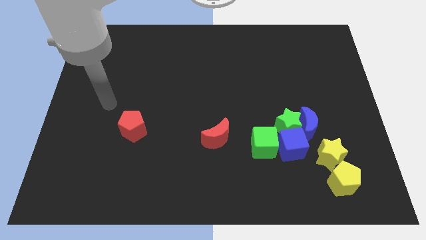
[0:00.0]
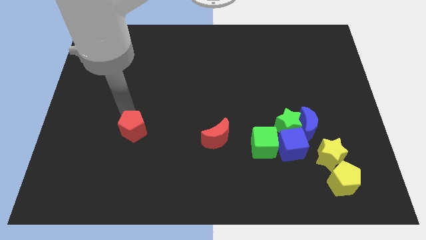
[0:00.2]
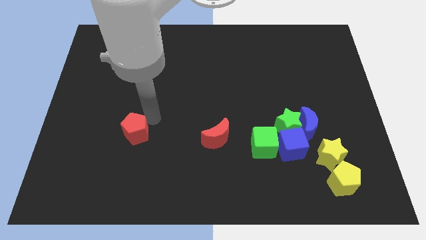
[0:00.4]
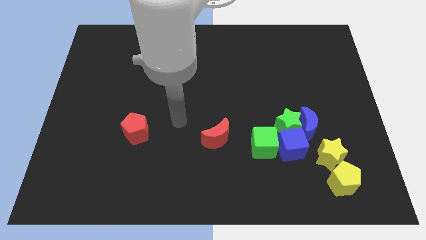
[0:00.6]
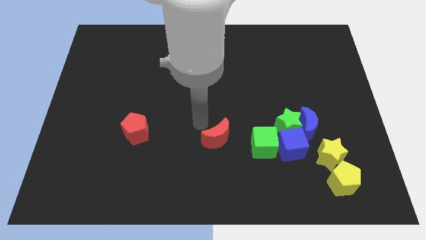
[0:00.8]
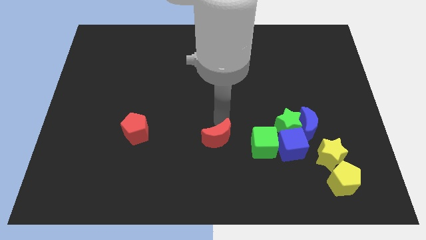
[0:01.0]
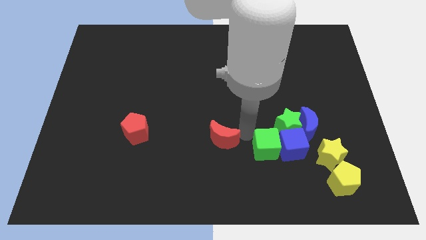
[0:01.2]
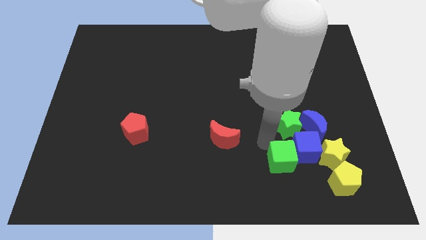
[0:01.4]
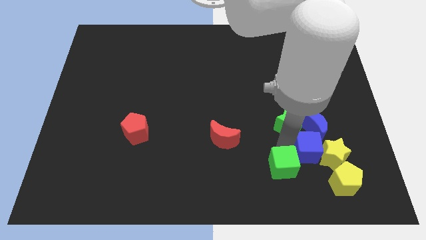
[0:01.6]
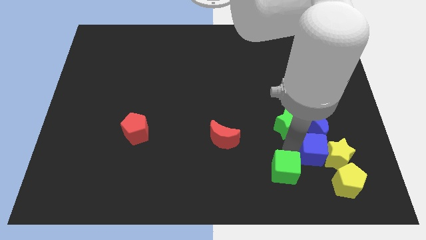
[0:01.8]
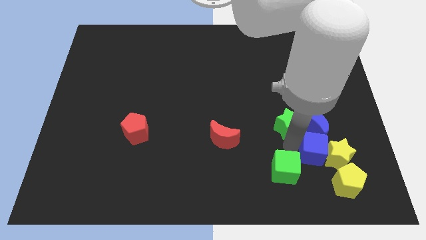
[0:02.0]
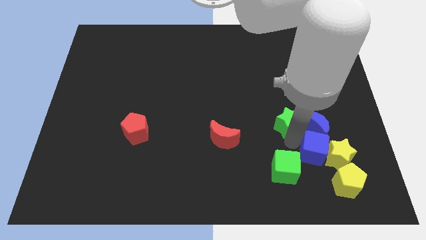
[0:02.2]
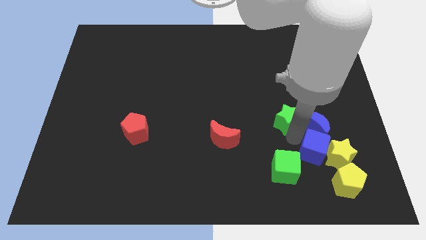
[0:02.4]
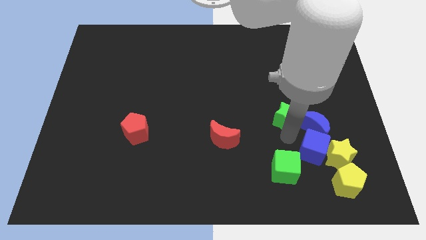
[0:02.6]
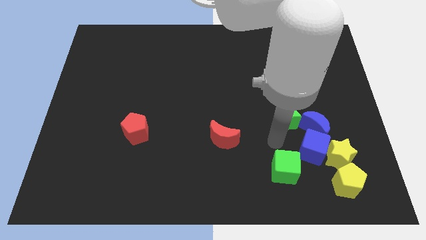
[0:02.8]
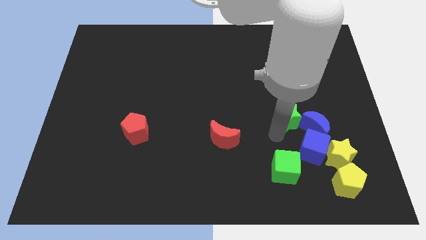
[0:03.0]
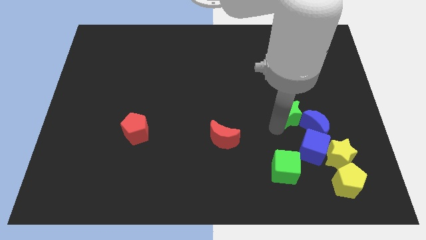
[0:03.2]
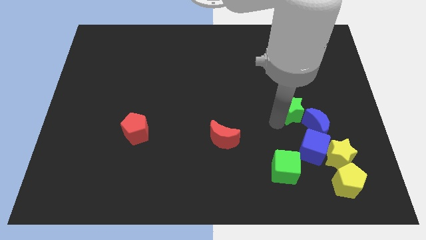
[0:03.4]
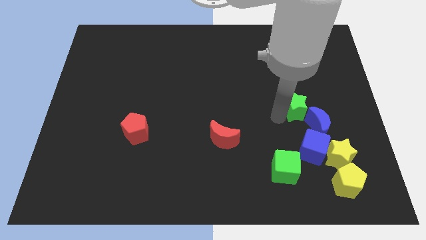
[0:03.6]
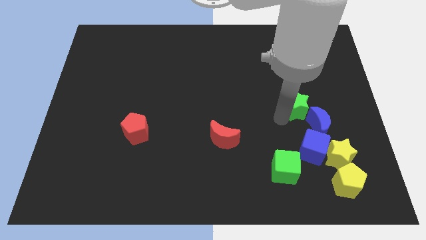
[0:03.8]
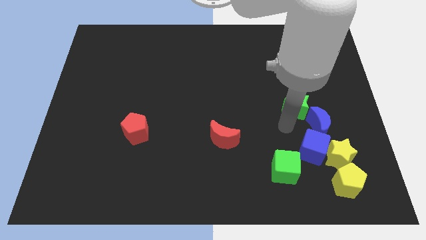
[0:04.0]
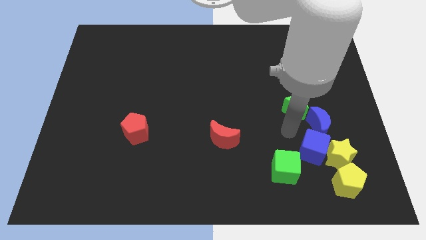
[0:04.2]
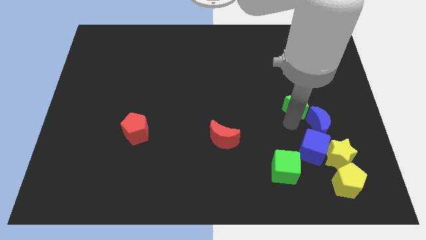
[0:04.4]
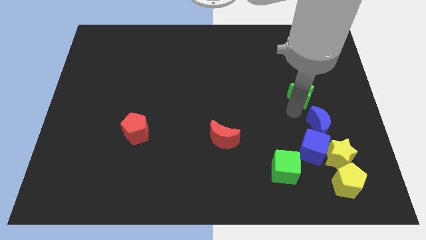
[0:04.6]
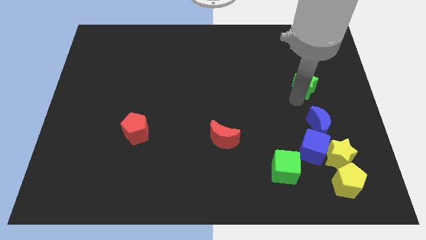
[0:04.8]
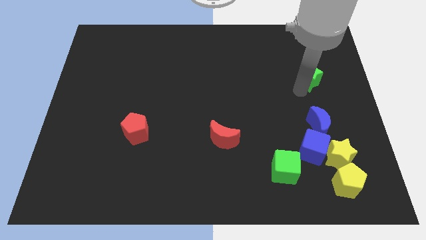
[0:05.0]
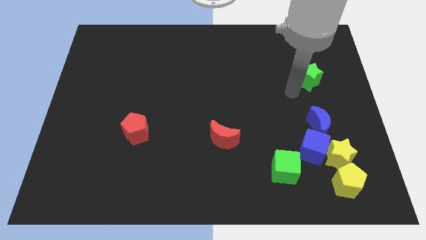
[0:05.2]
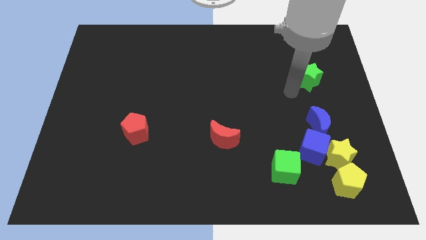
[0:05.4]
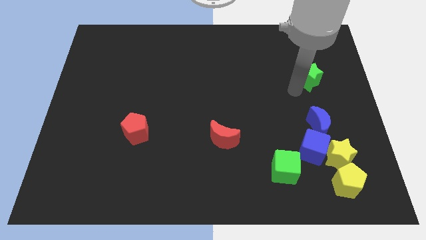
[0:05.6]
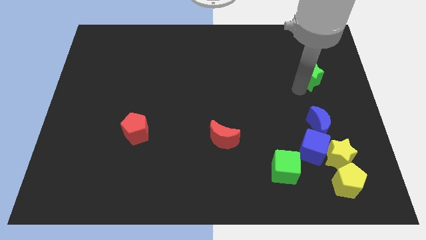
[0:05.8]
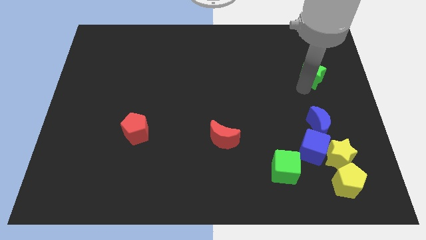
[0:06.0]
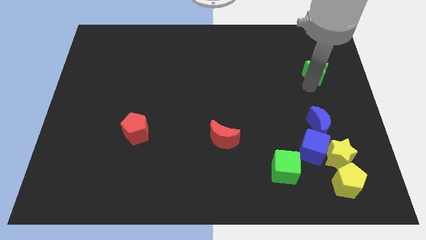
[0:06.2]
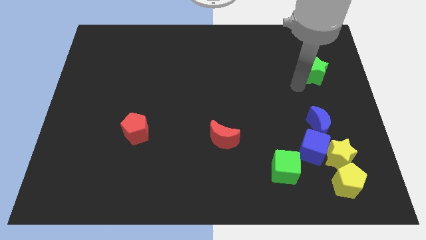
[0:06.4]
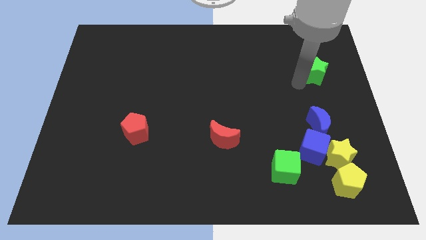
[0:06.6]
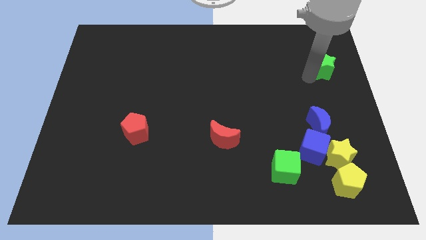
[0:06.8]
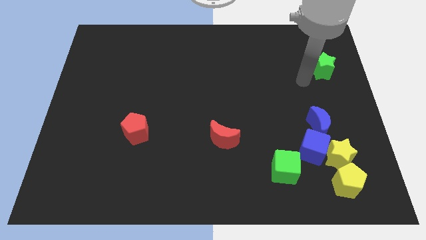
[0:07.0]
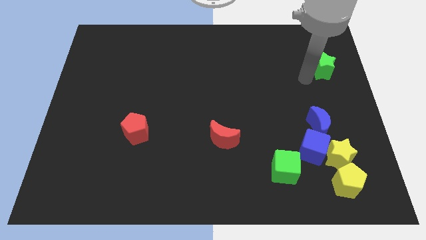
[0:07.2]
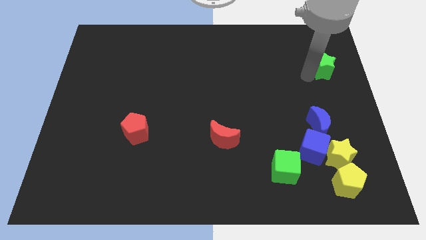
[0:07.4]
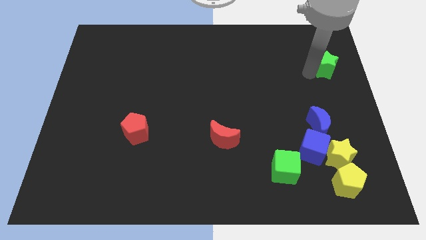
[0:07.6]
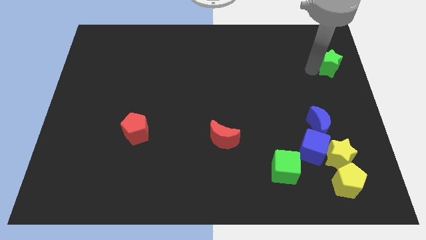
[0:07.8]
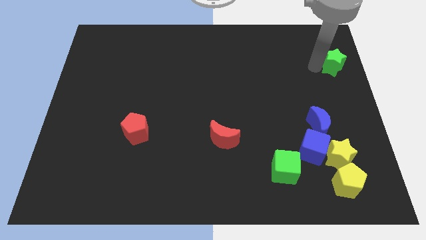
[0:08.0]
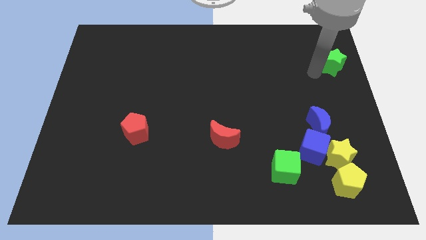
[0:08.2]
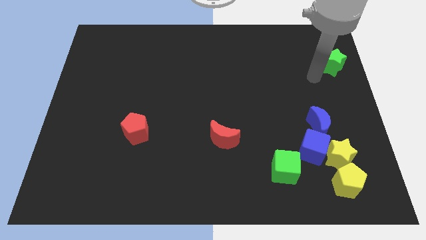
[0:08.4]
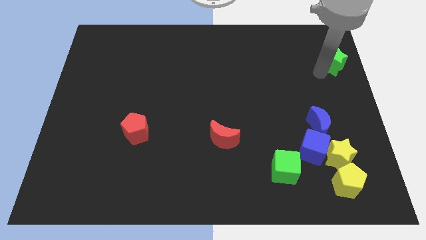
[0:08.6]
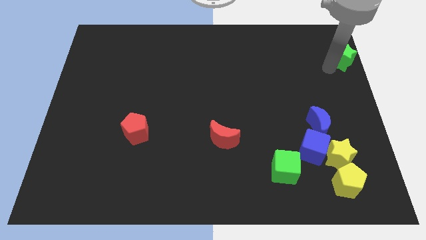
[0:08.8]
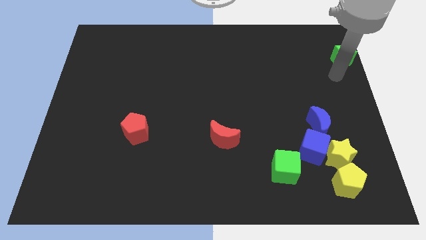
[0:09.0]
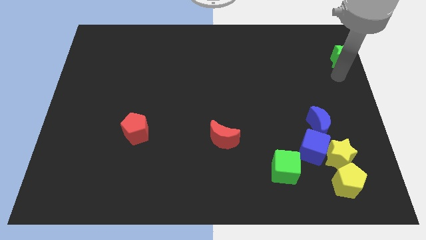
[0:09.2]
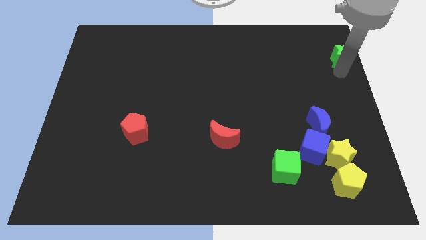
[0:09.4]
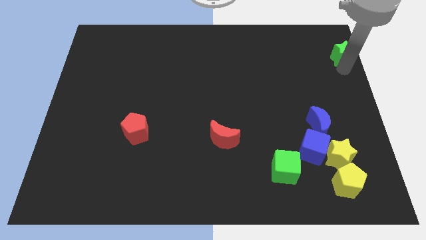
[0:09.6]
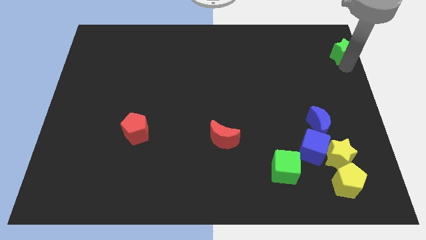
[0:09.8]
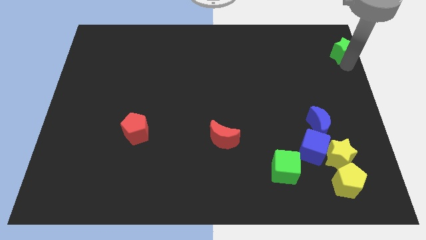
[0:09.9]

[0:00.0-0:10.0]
put the green star to the upper right corner
